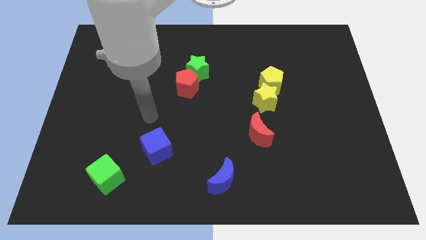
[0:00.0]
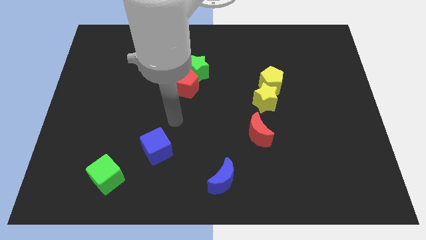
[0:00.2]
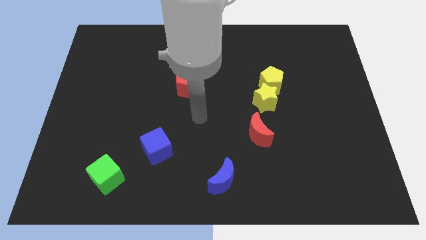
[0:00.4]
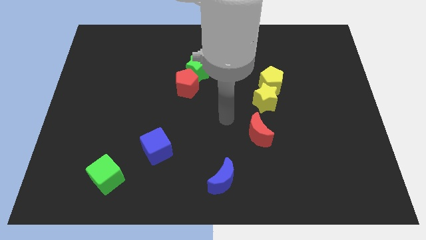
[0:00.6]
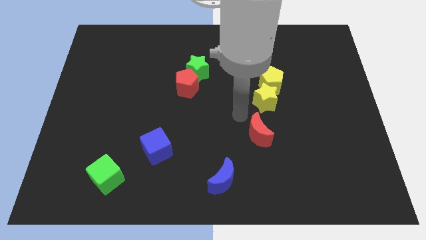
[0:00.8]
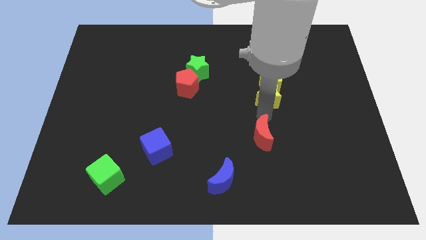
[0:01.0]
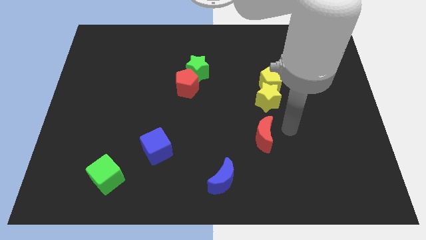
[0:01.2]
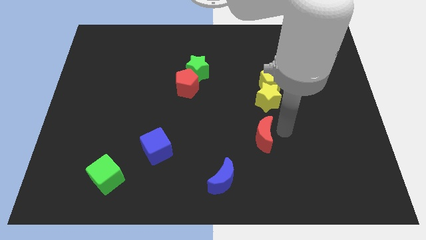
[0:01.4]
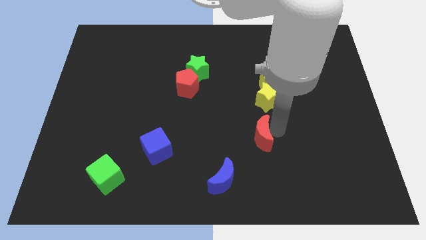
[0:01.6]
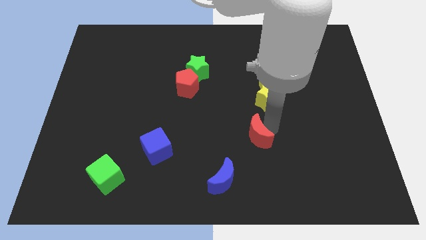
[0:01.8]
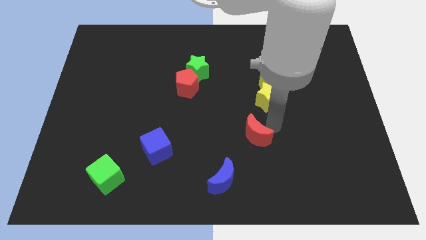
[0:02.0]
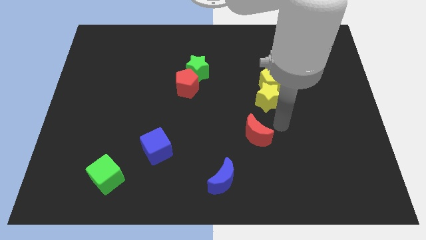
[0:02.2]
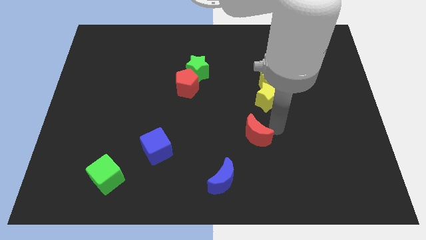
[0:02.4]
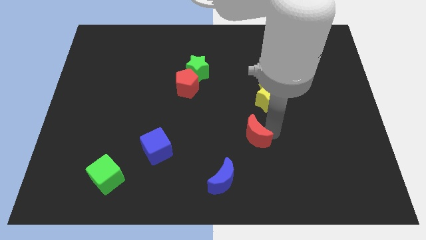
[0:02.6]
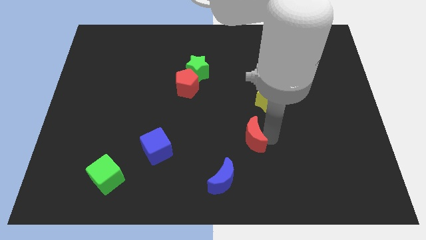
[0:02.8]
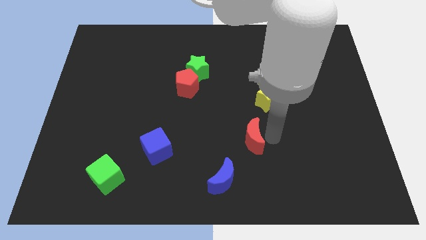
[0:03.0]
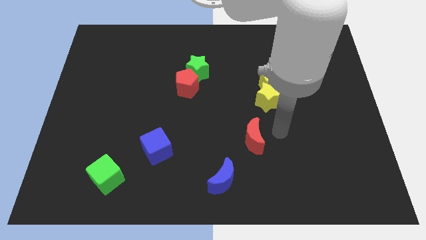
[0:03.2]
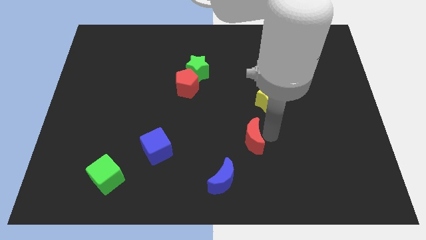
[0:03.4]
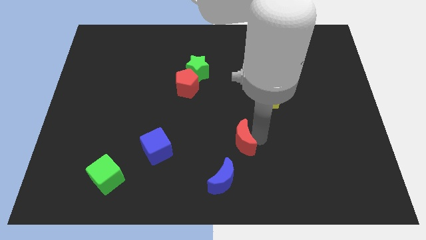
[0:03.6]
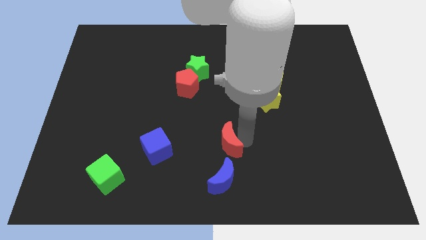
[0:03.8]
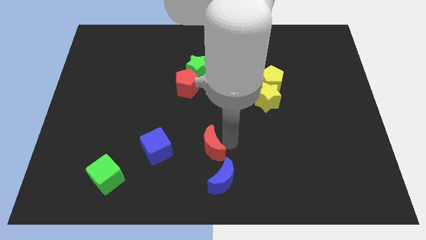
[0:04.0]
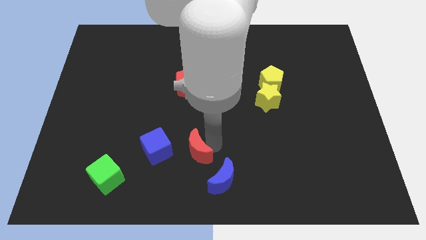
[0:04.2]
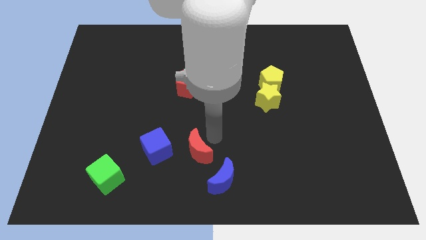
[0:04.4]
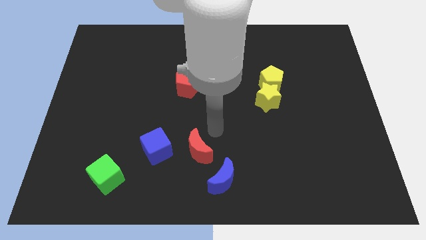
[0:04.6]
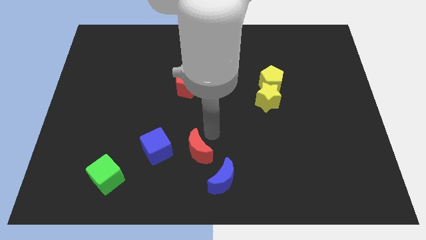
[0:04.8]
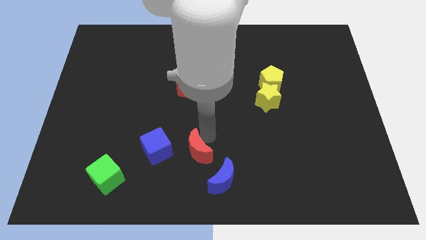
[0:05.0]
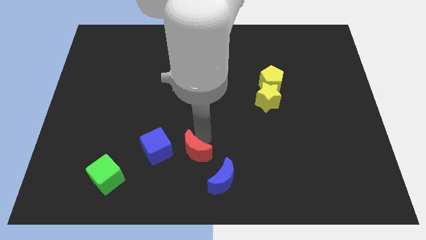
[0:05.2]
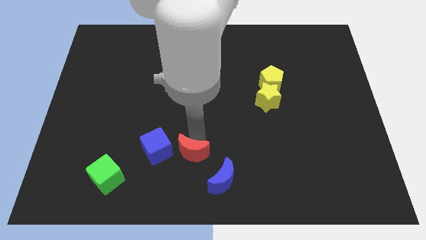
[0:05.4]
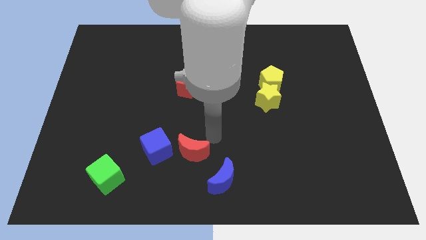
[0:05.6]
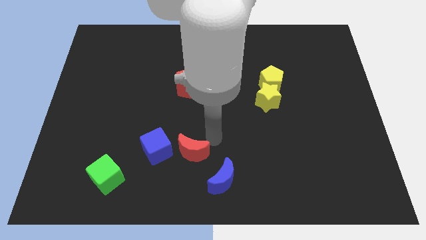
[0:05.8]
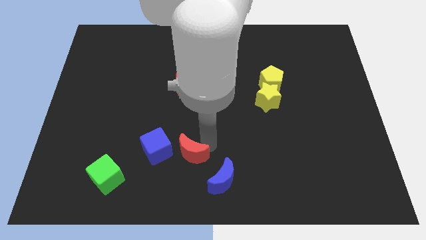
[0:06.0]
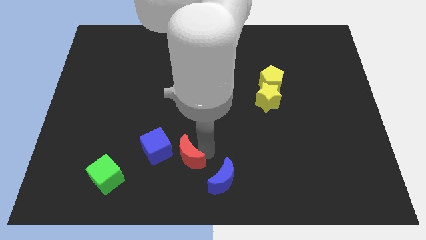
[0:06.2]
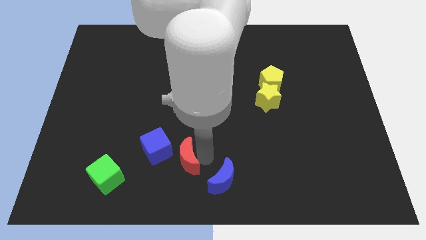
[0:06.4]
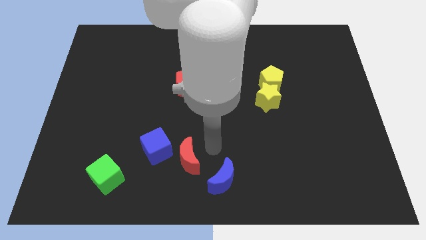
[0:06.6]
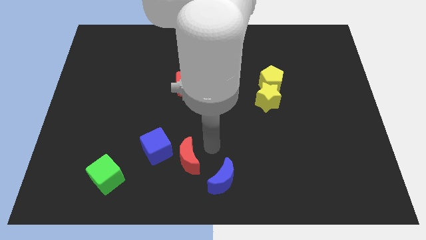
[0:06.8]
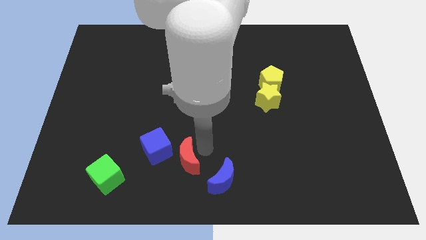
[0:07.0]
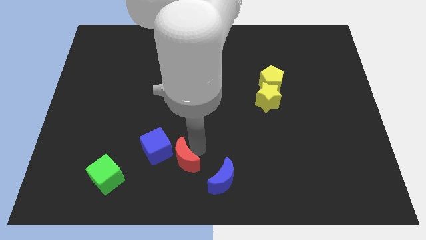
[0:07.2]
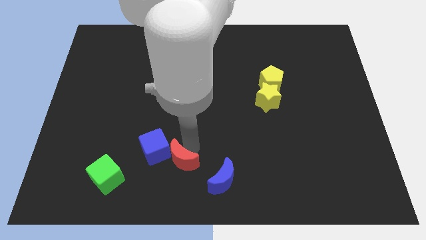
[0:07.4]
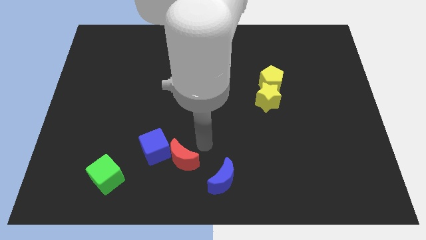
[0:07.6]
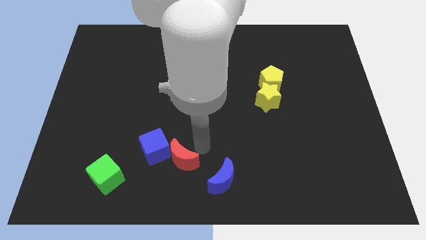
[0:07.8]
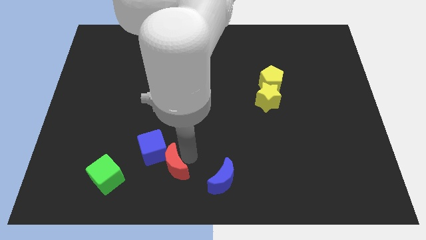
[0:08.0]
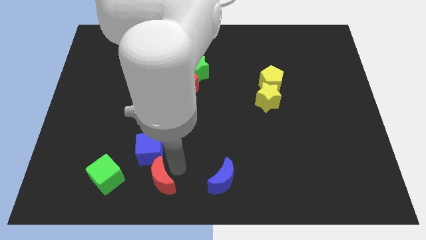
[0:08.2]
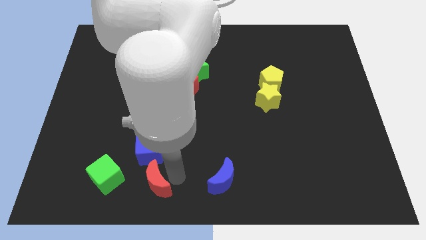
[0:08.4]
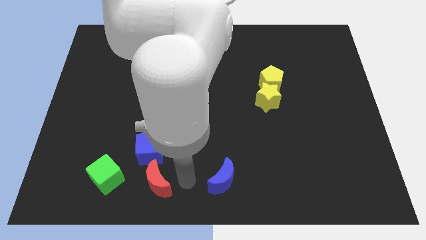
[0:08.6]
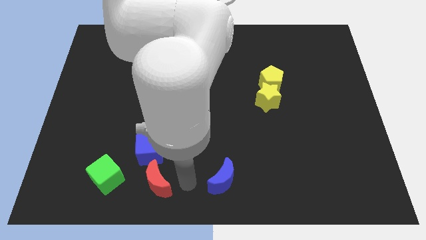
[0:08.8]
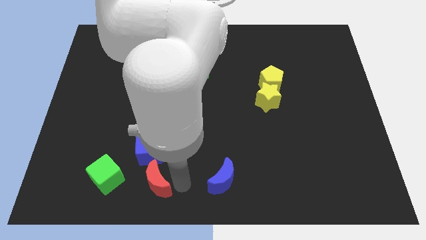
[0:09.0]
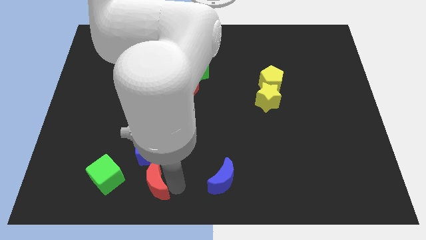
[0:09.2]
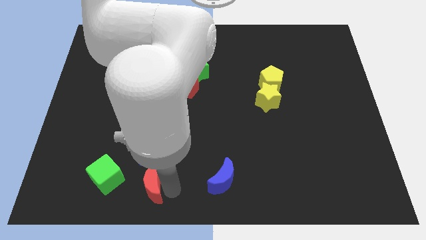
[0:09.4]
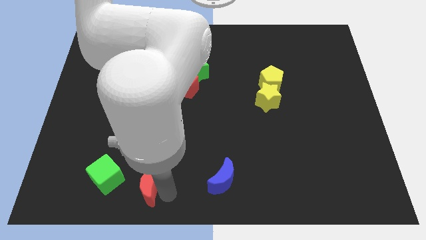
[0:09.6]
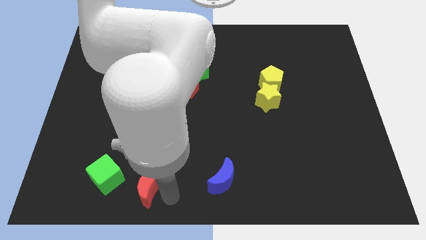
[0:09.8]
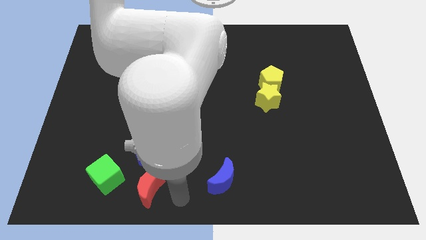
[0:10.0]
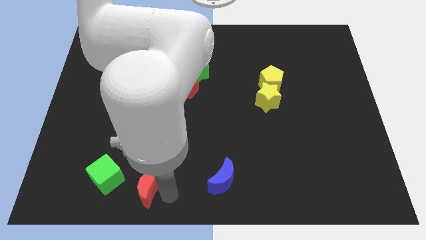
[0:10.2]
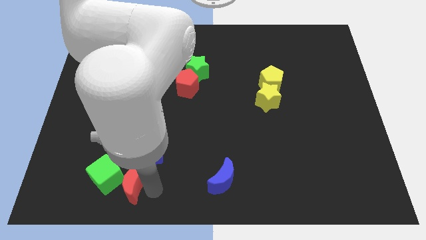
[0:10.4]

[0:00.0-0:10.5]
put the red moon close to the green cube

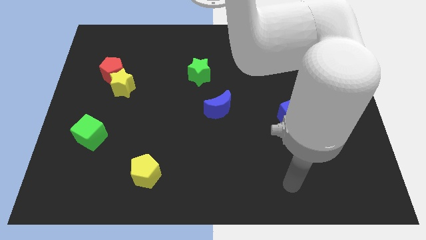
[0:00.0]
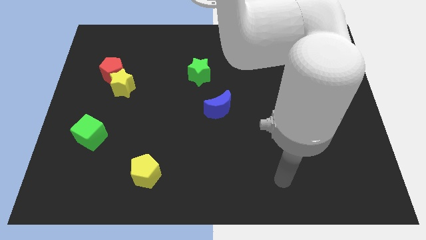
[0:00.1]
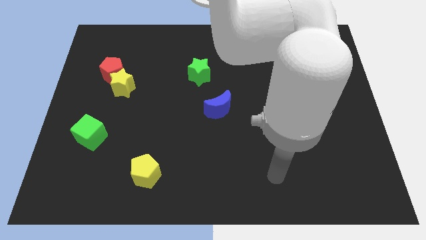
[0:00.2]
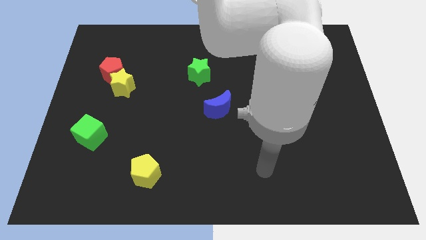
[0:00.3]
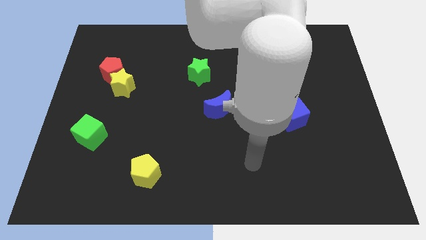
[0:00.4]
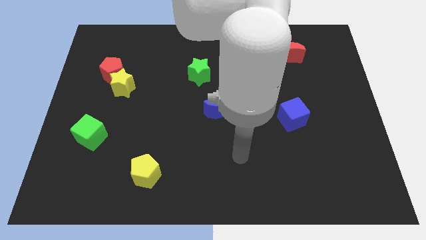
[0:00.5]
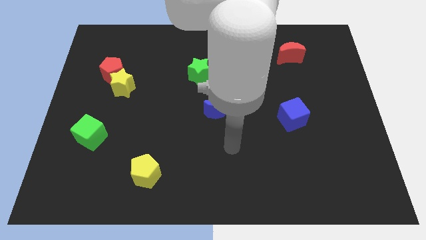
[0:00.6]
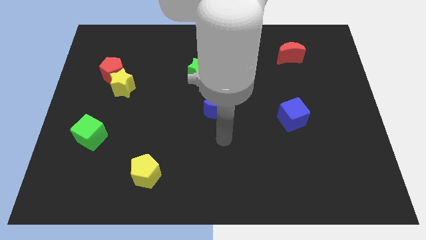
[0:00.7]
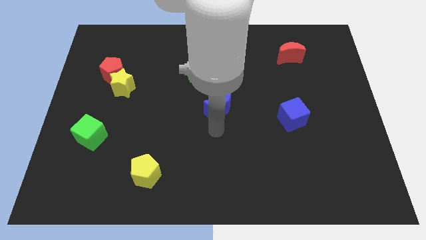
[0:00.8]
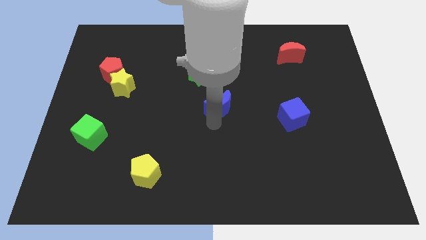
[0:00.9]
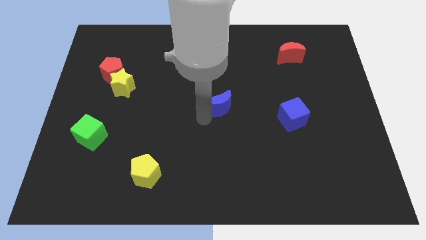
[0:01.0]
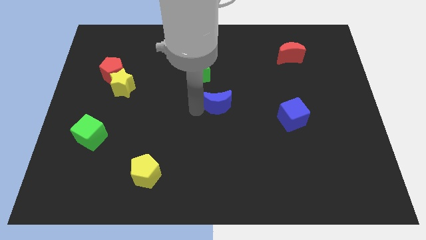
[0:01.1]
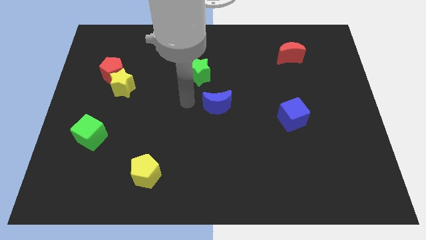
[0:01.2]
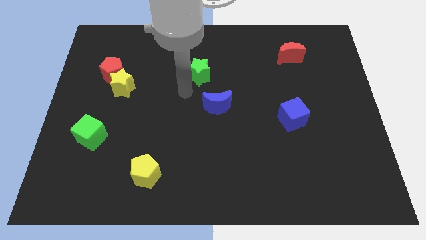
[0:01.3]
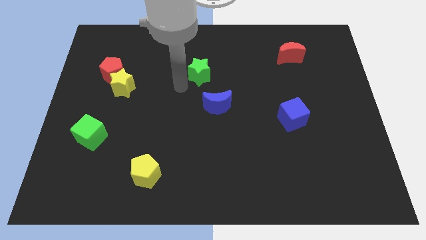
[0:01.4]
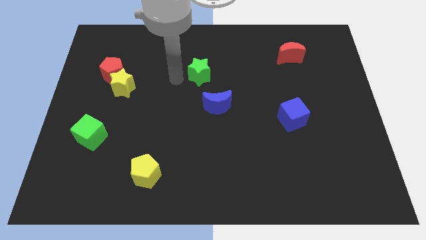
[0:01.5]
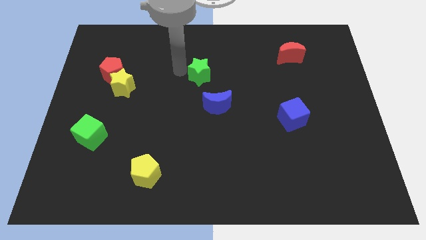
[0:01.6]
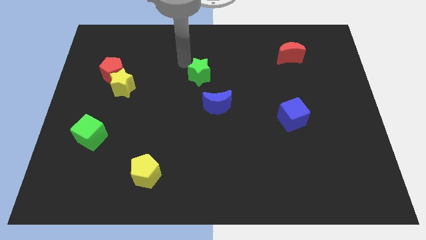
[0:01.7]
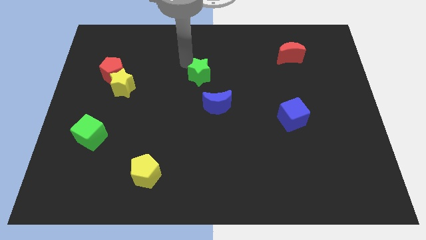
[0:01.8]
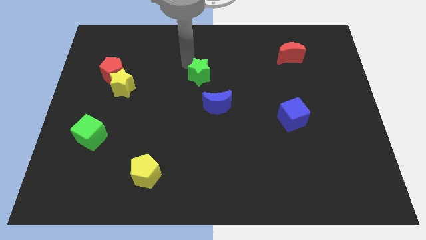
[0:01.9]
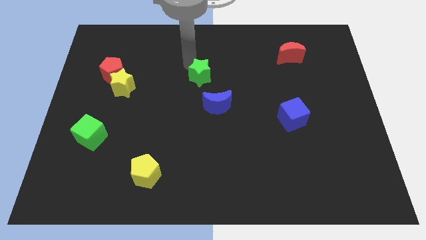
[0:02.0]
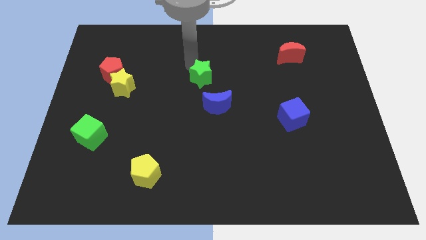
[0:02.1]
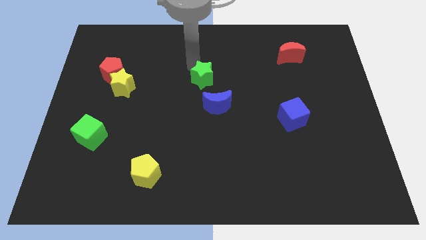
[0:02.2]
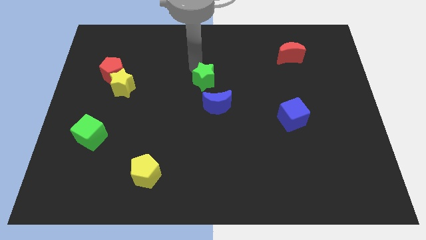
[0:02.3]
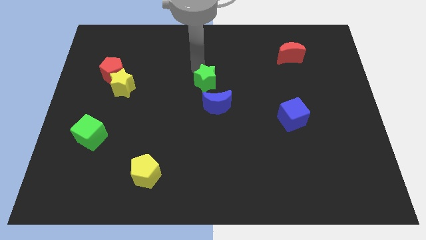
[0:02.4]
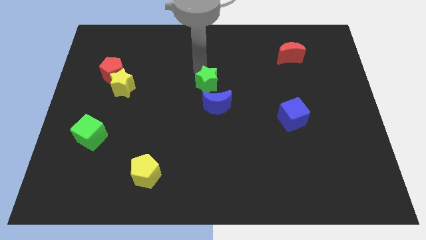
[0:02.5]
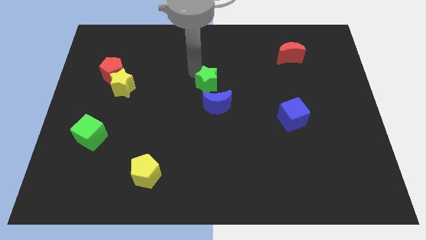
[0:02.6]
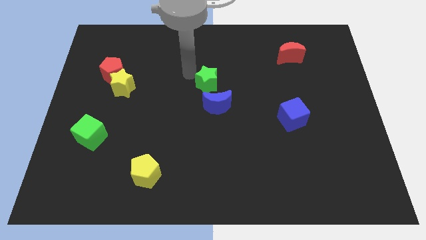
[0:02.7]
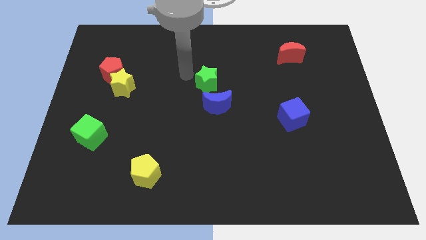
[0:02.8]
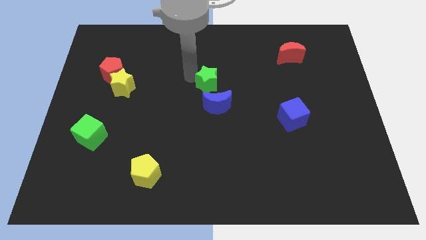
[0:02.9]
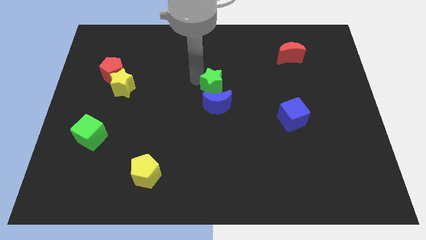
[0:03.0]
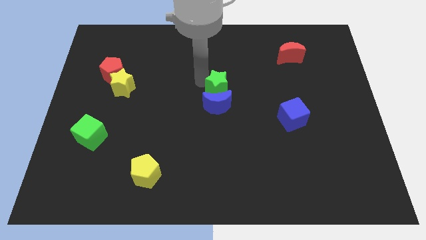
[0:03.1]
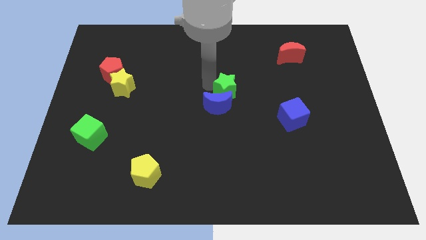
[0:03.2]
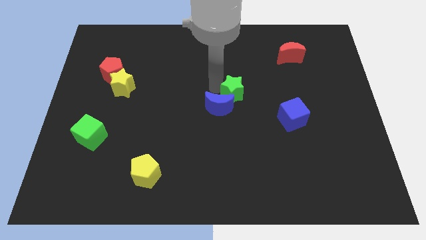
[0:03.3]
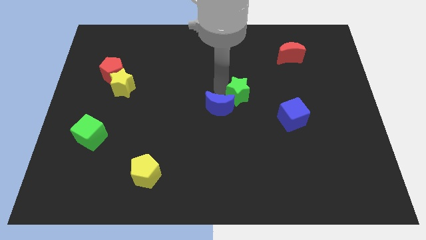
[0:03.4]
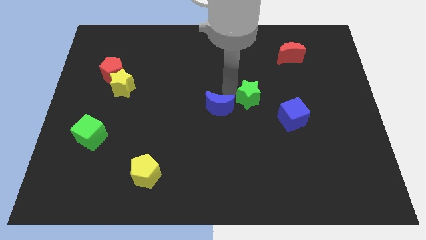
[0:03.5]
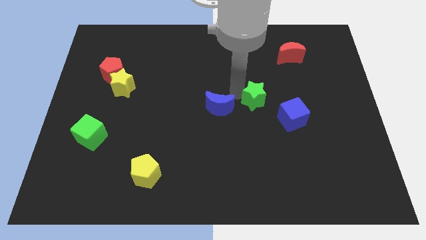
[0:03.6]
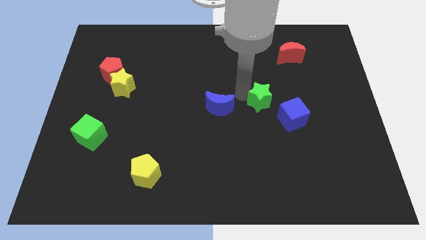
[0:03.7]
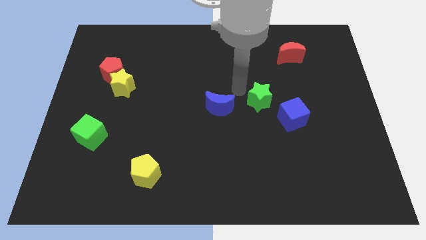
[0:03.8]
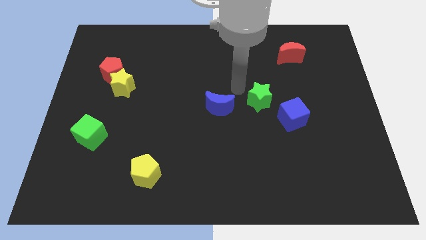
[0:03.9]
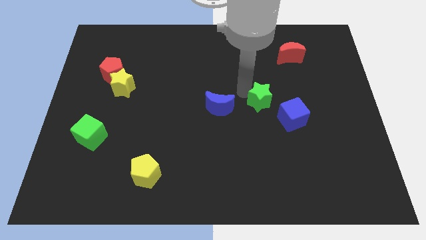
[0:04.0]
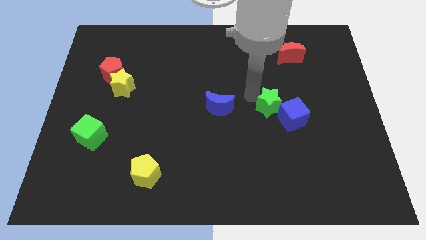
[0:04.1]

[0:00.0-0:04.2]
slide the green star to the blue cube
